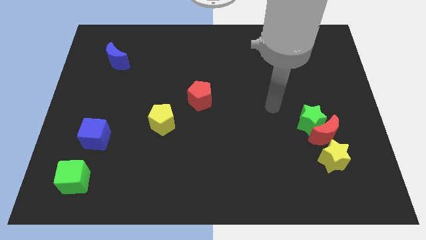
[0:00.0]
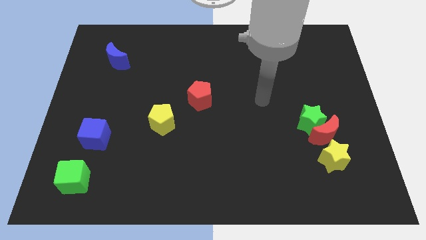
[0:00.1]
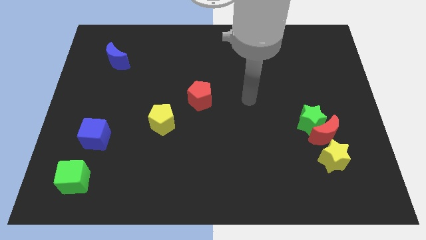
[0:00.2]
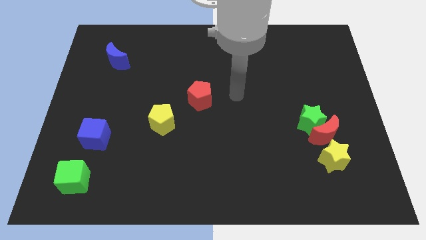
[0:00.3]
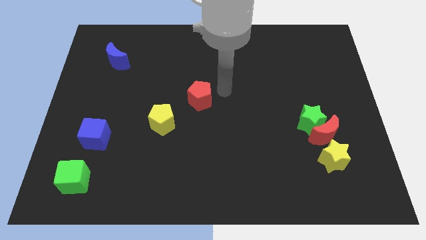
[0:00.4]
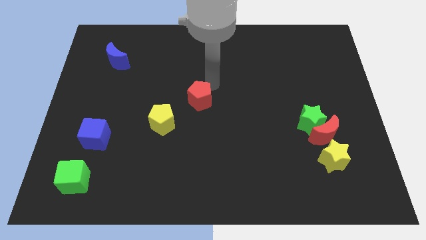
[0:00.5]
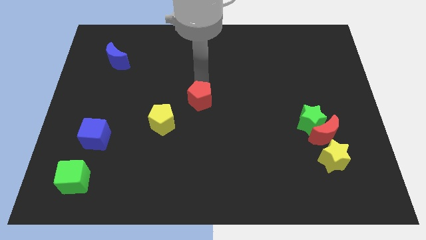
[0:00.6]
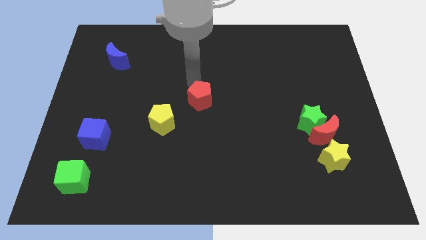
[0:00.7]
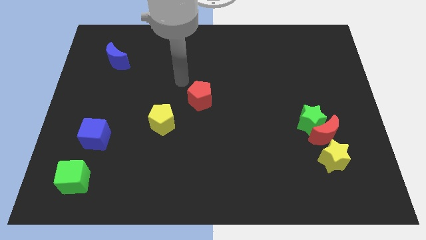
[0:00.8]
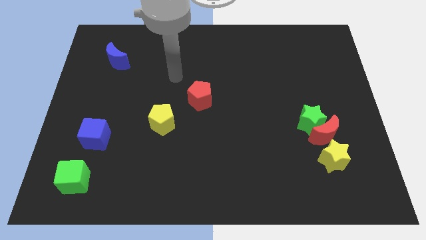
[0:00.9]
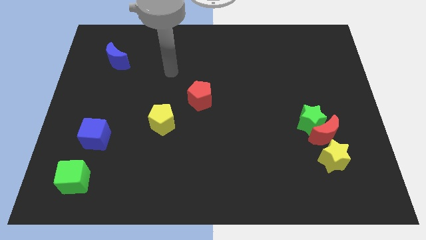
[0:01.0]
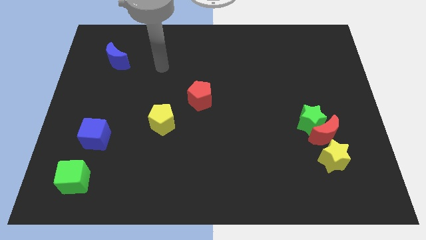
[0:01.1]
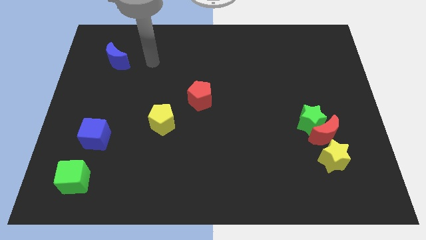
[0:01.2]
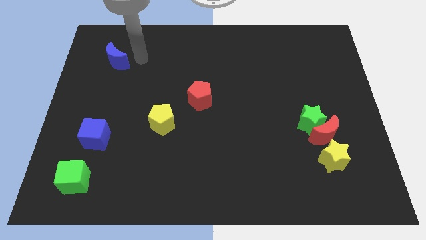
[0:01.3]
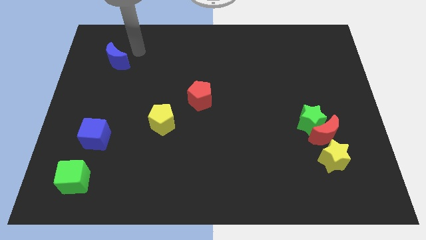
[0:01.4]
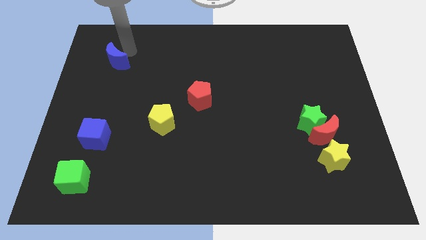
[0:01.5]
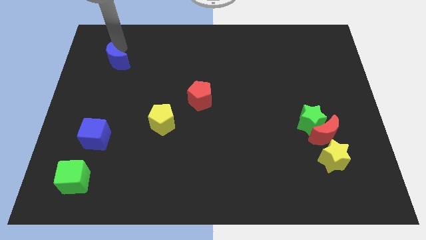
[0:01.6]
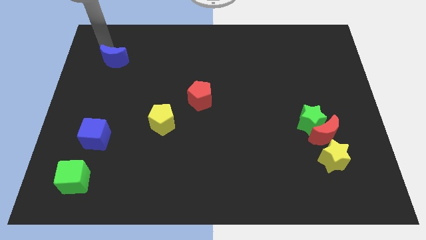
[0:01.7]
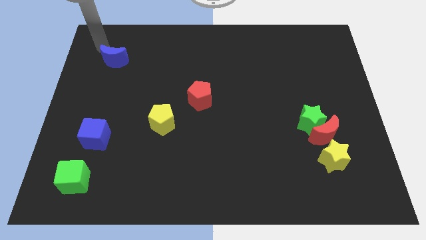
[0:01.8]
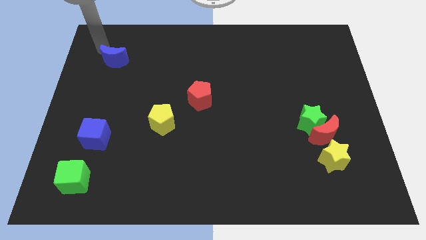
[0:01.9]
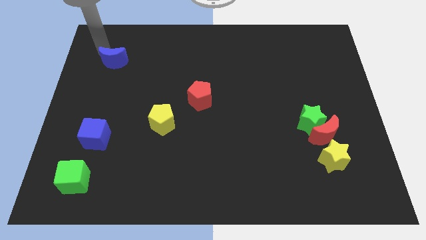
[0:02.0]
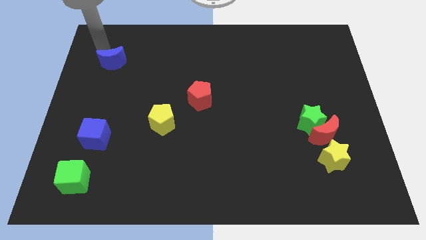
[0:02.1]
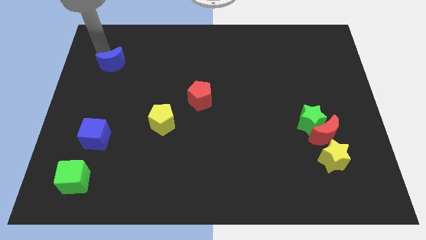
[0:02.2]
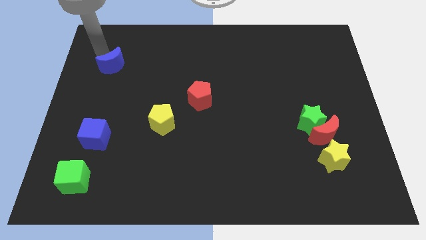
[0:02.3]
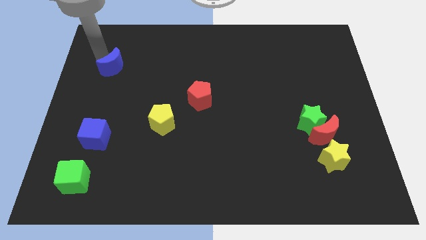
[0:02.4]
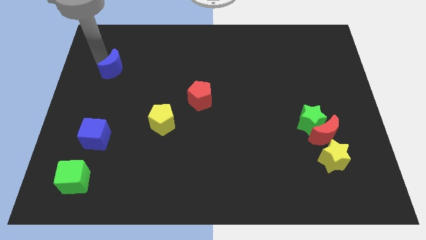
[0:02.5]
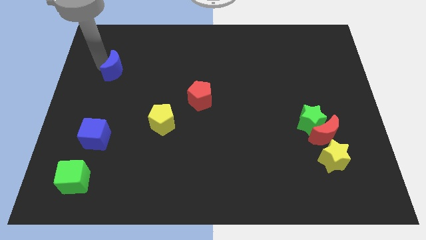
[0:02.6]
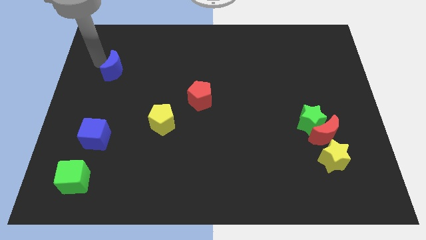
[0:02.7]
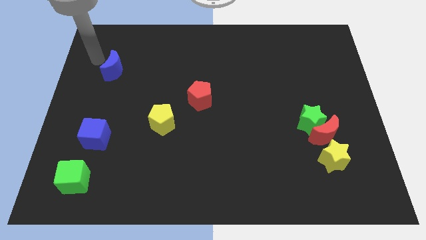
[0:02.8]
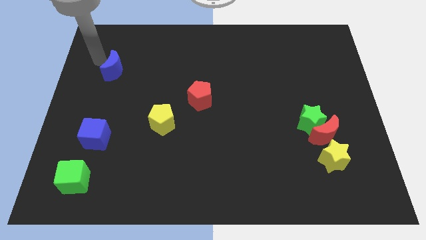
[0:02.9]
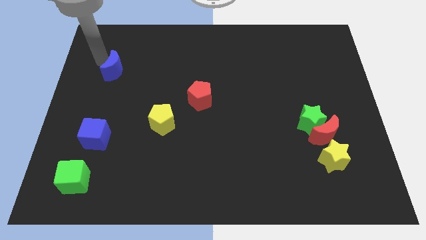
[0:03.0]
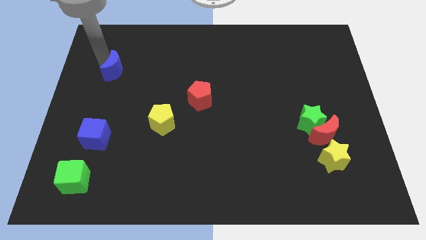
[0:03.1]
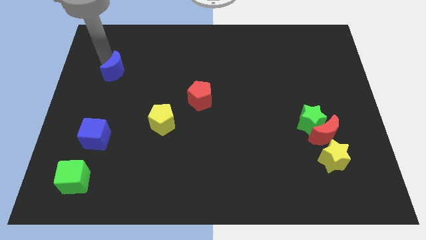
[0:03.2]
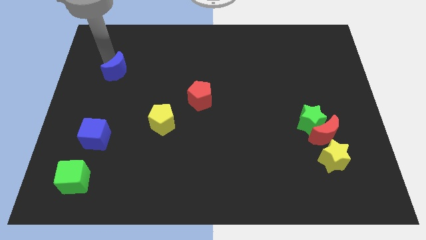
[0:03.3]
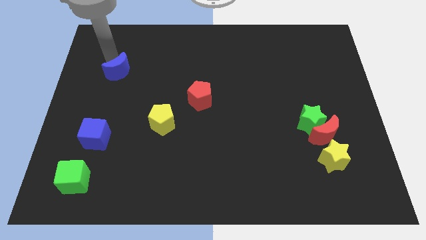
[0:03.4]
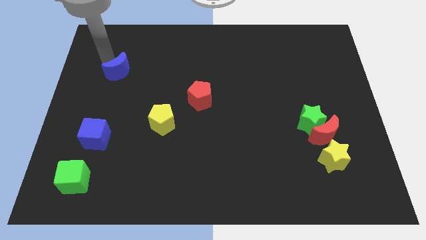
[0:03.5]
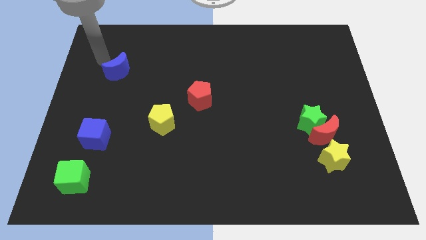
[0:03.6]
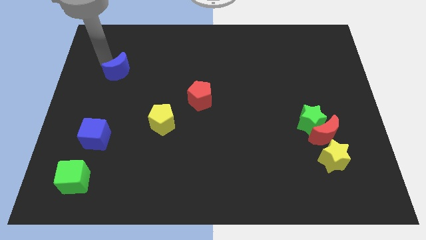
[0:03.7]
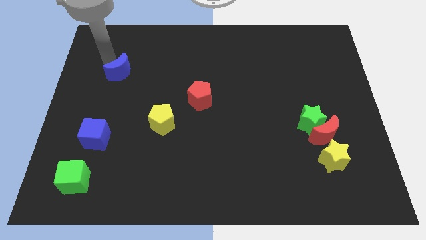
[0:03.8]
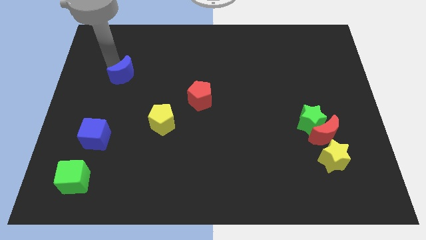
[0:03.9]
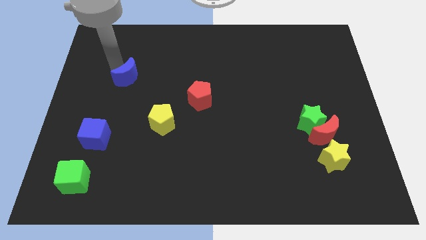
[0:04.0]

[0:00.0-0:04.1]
slightly slide the blue moon downwards and right diagonally

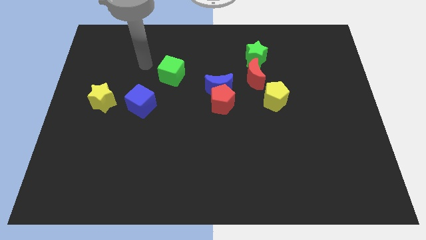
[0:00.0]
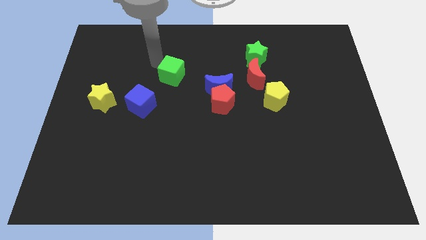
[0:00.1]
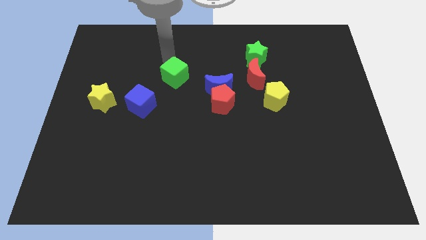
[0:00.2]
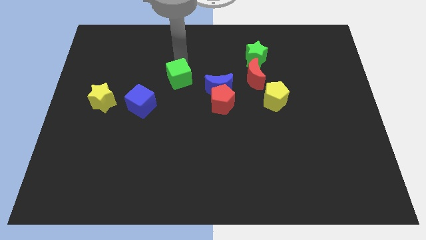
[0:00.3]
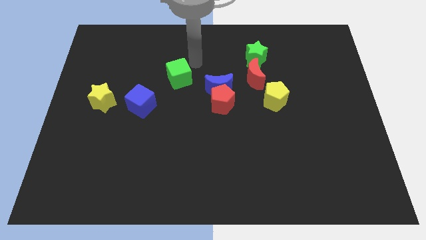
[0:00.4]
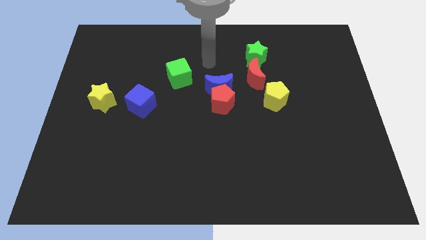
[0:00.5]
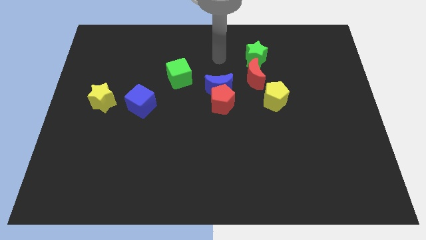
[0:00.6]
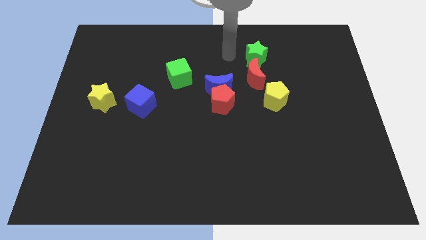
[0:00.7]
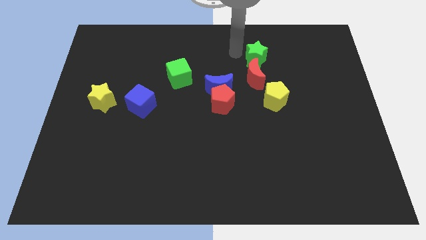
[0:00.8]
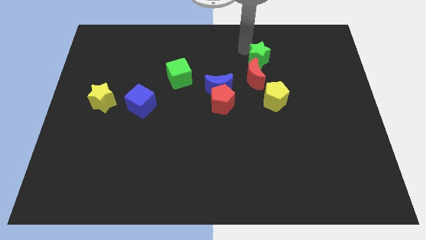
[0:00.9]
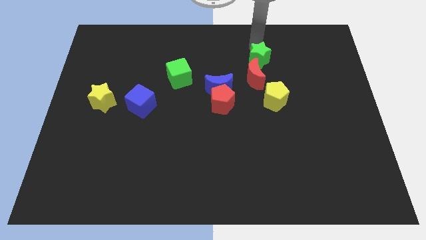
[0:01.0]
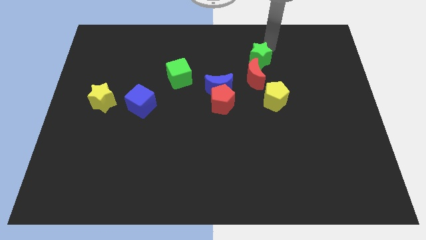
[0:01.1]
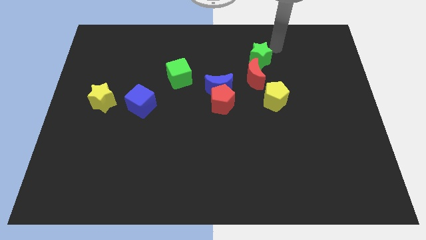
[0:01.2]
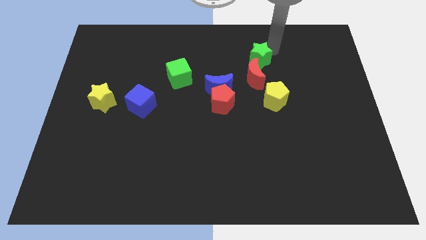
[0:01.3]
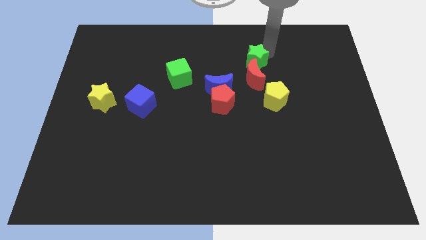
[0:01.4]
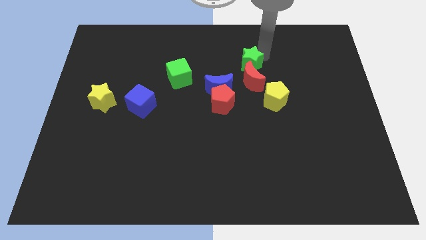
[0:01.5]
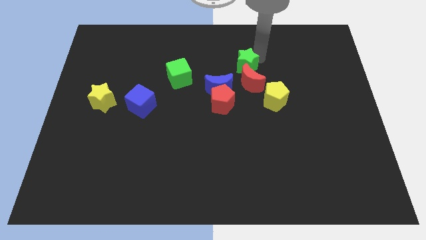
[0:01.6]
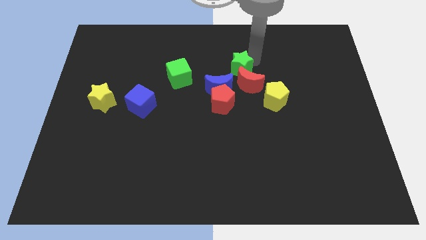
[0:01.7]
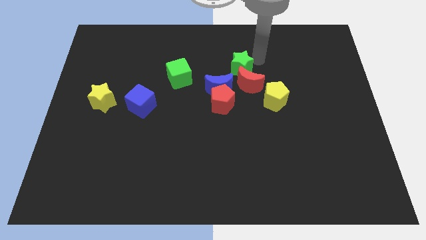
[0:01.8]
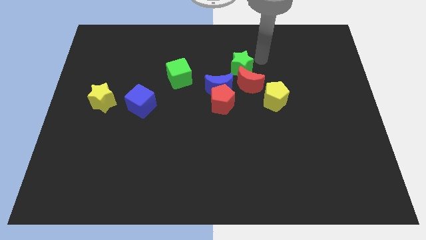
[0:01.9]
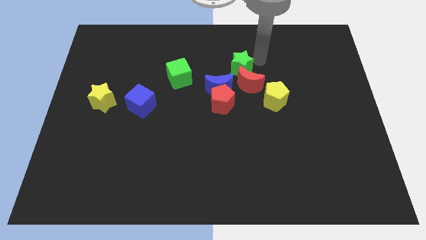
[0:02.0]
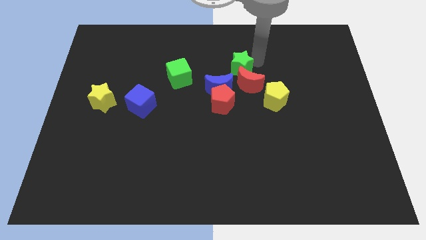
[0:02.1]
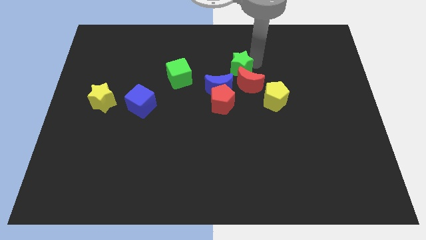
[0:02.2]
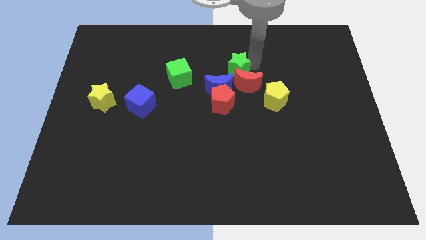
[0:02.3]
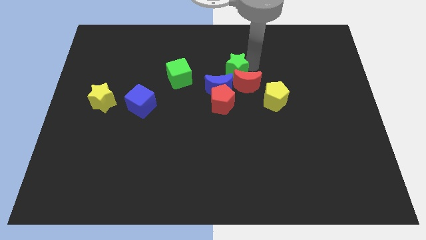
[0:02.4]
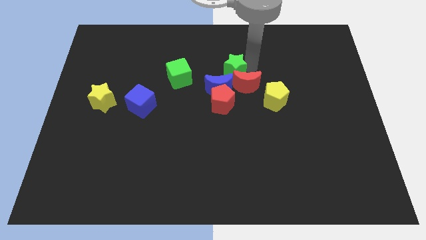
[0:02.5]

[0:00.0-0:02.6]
push the green star downwards and then to the left slightly

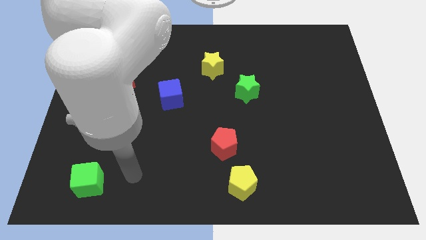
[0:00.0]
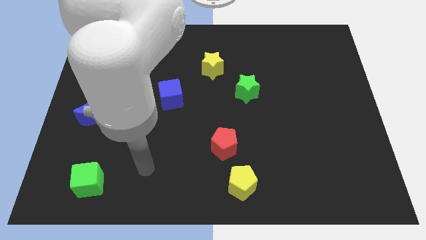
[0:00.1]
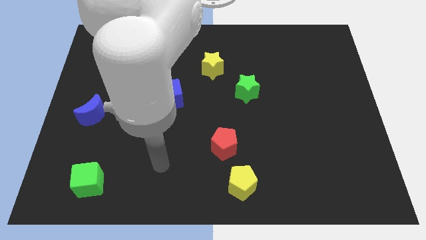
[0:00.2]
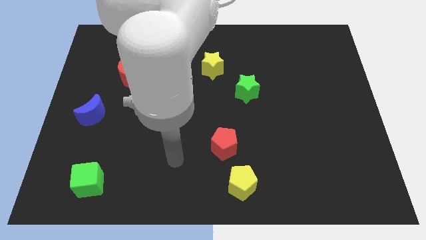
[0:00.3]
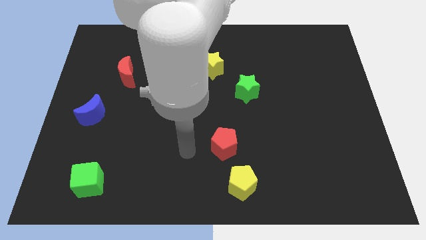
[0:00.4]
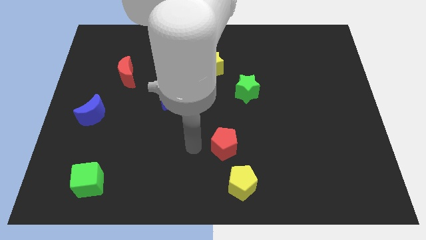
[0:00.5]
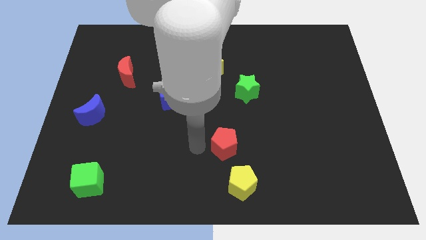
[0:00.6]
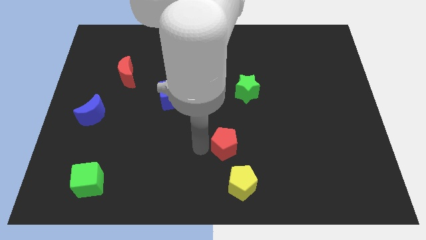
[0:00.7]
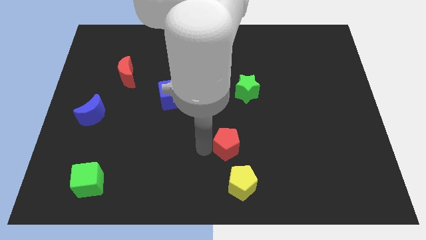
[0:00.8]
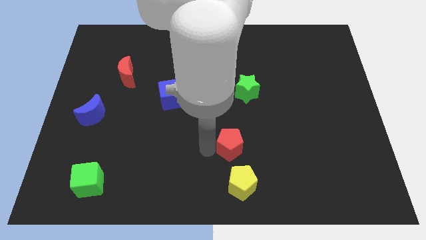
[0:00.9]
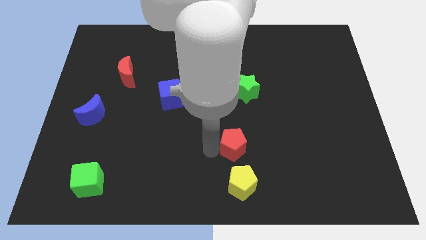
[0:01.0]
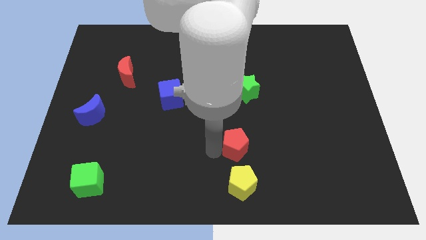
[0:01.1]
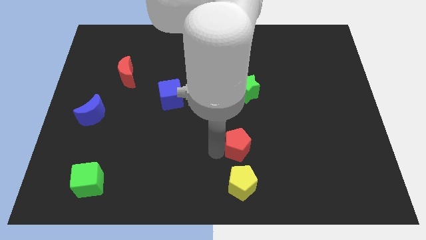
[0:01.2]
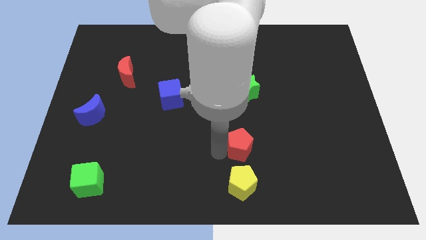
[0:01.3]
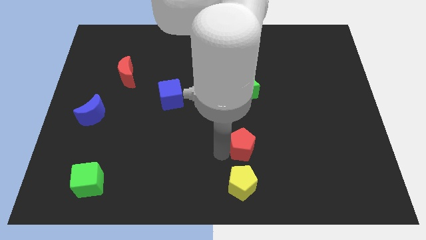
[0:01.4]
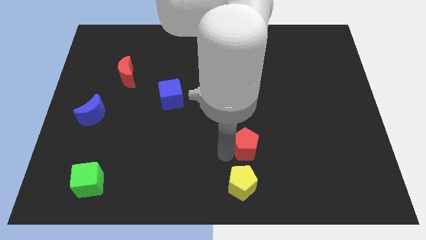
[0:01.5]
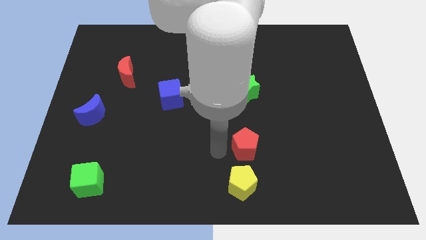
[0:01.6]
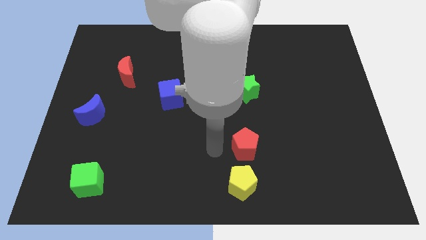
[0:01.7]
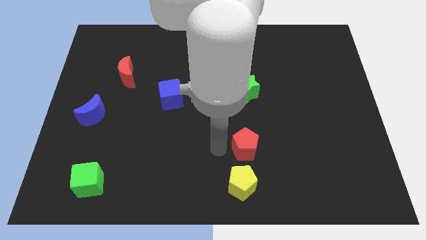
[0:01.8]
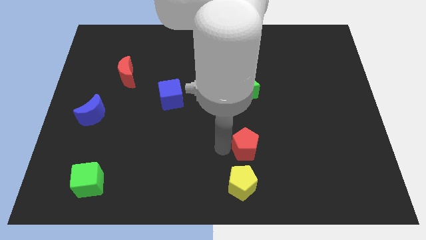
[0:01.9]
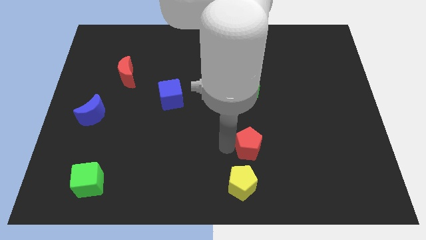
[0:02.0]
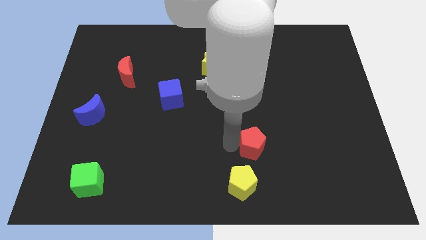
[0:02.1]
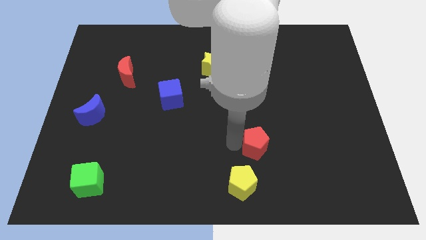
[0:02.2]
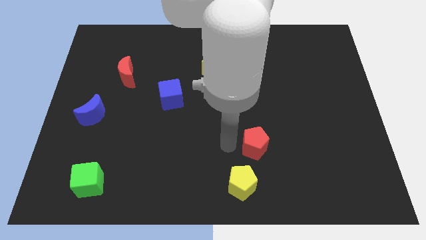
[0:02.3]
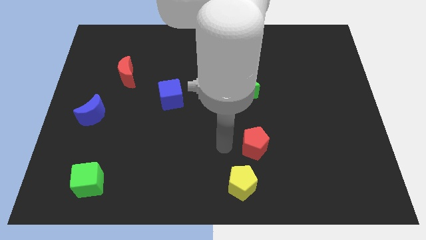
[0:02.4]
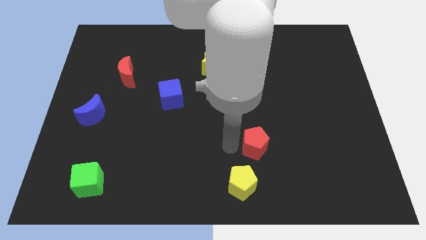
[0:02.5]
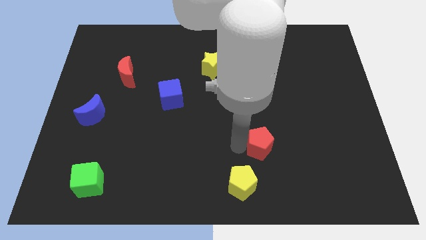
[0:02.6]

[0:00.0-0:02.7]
slide the red pentagon right a bit
